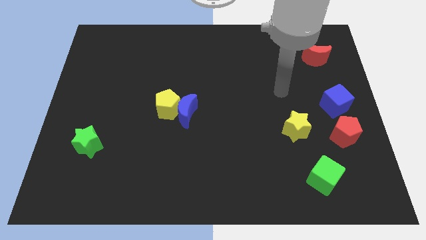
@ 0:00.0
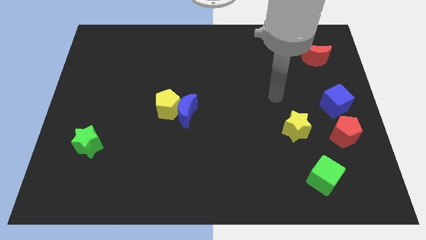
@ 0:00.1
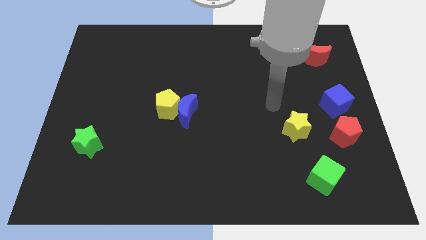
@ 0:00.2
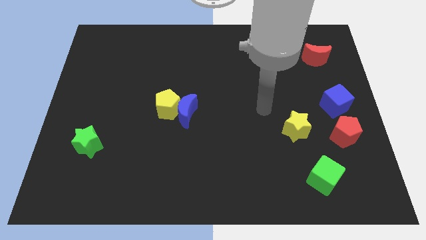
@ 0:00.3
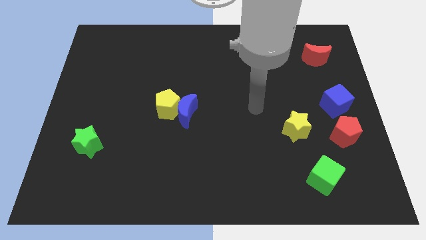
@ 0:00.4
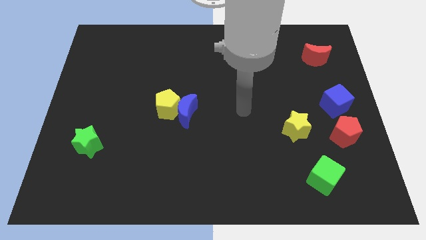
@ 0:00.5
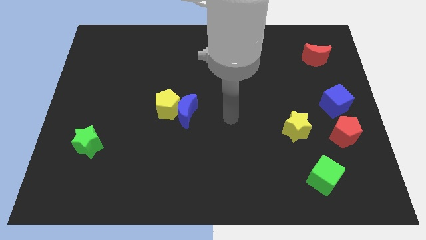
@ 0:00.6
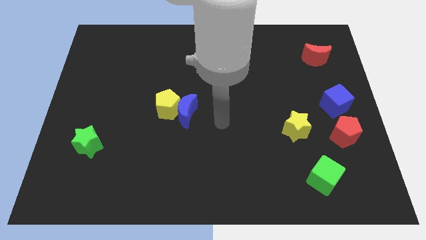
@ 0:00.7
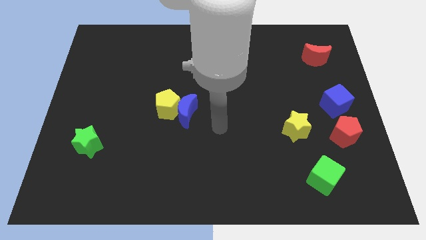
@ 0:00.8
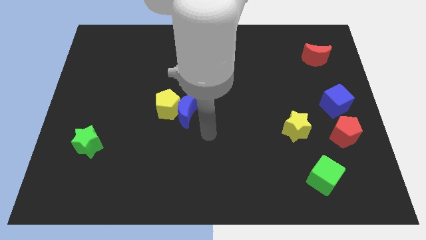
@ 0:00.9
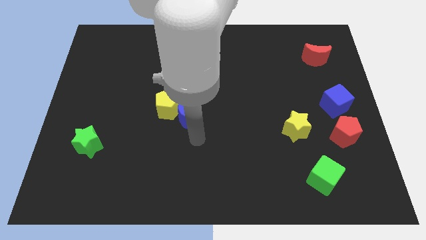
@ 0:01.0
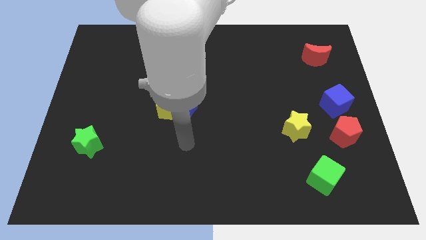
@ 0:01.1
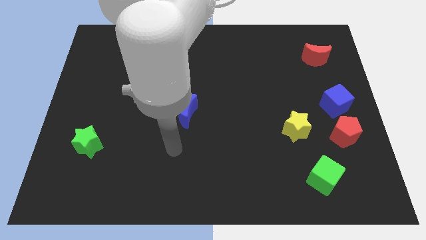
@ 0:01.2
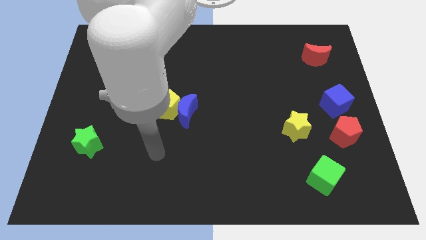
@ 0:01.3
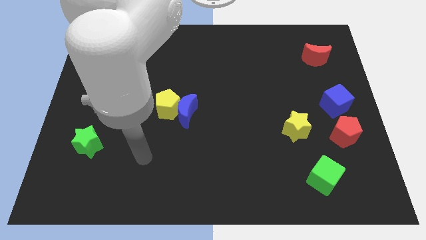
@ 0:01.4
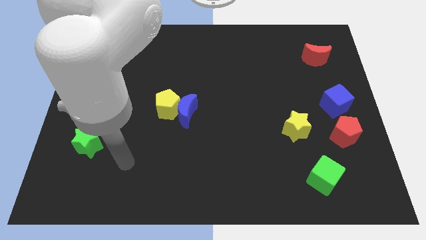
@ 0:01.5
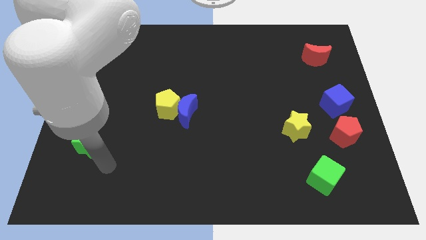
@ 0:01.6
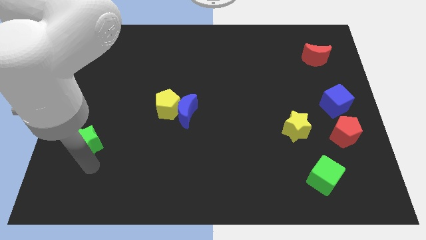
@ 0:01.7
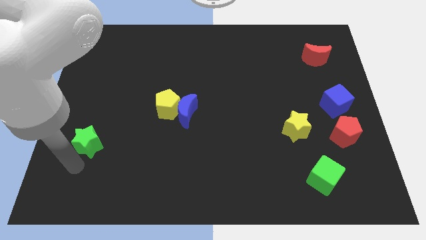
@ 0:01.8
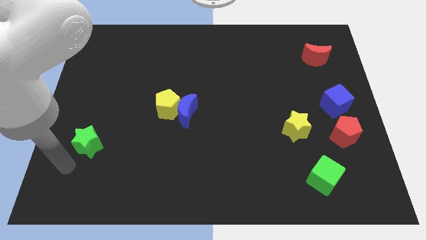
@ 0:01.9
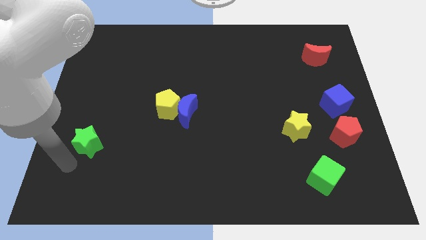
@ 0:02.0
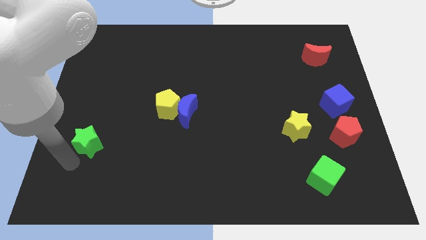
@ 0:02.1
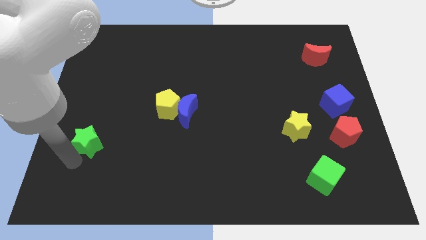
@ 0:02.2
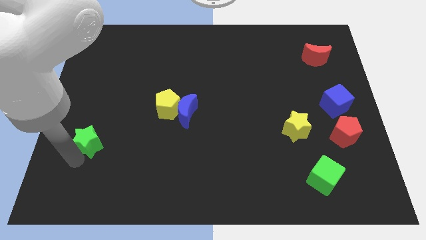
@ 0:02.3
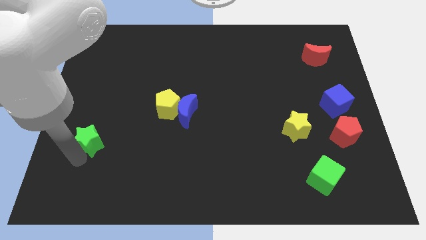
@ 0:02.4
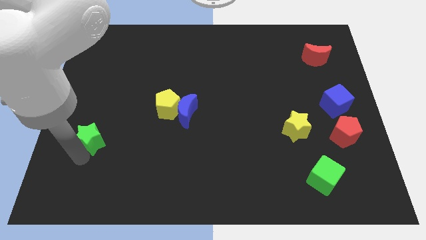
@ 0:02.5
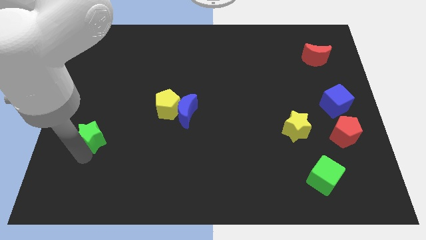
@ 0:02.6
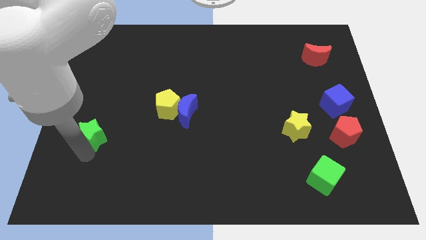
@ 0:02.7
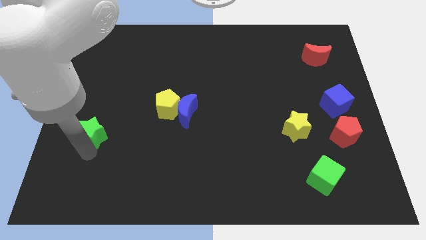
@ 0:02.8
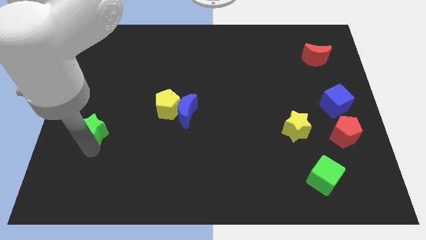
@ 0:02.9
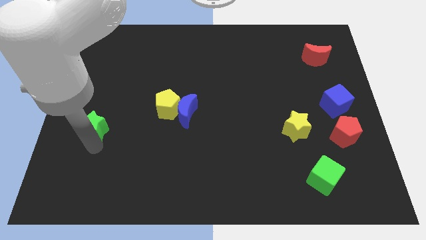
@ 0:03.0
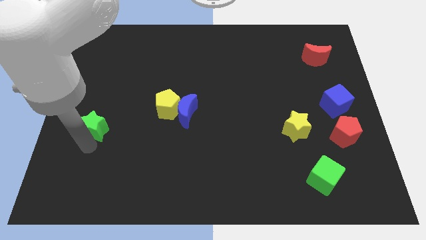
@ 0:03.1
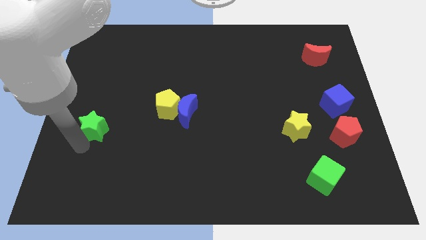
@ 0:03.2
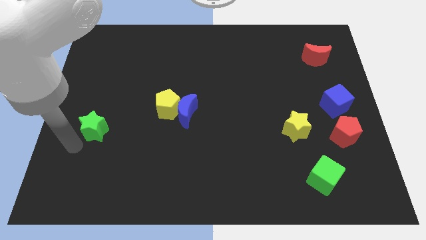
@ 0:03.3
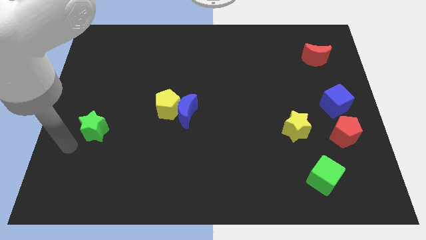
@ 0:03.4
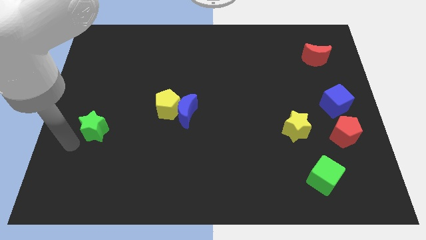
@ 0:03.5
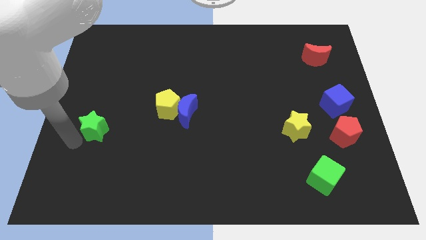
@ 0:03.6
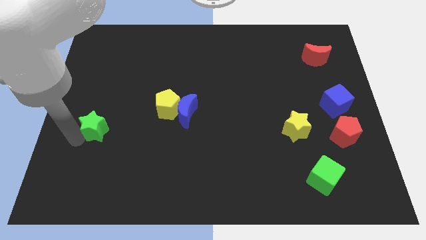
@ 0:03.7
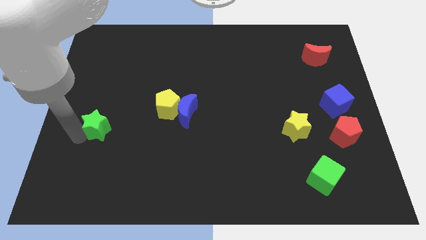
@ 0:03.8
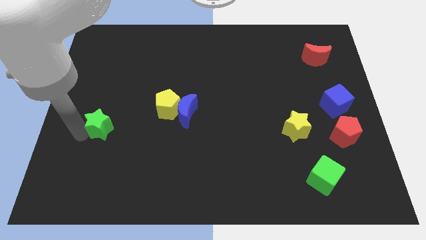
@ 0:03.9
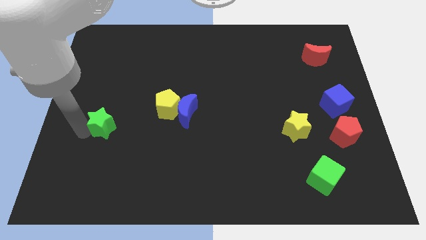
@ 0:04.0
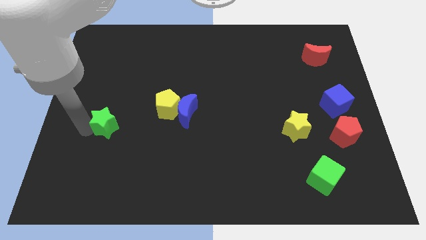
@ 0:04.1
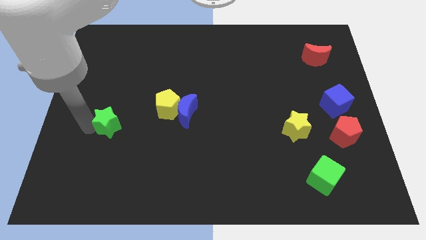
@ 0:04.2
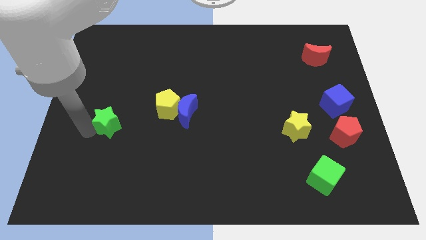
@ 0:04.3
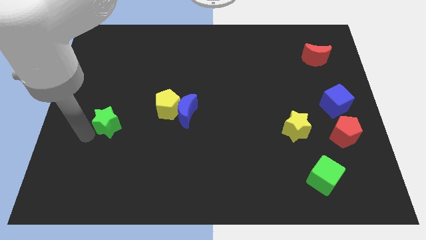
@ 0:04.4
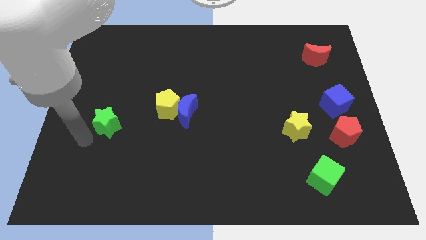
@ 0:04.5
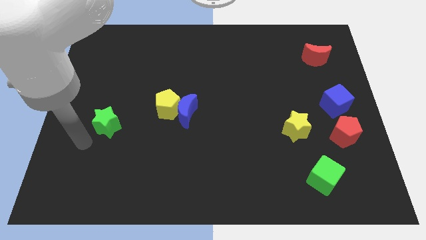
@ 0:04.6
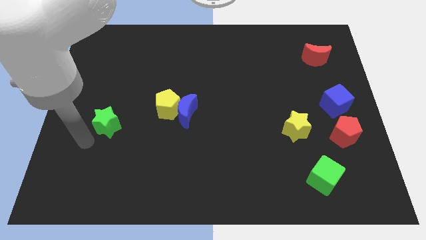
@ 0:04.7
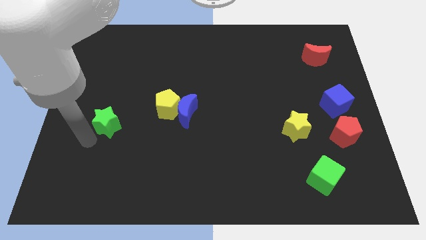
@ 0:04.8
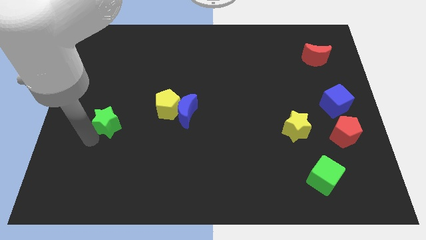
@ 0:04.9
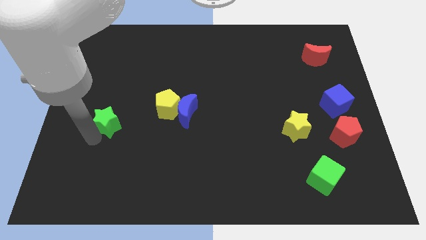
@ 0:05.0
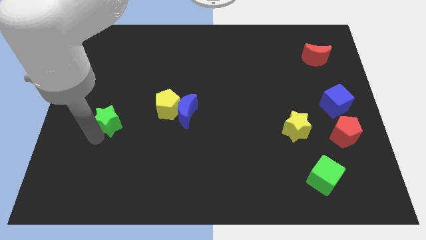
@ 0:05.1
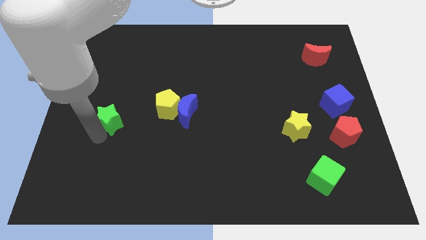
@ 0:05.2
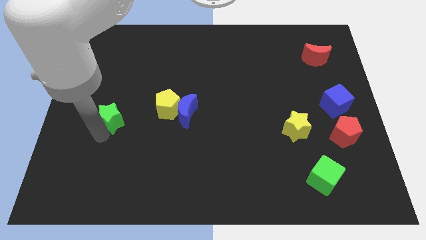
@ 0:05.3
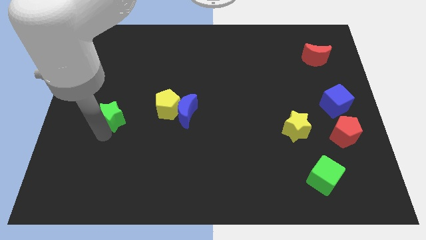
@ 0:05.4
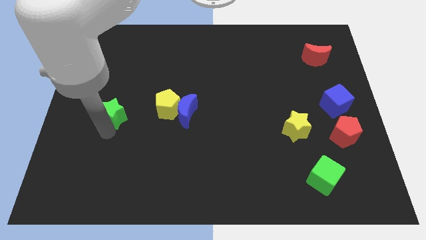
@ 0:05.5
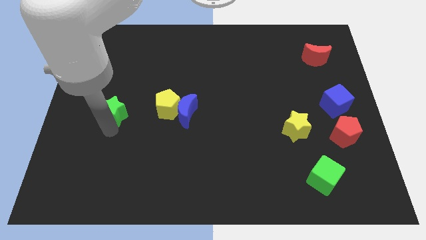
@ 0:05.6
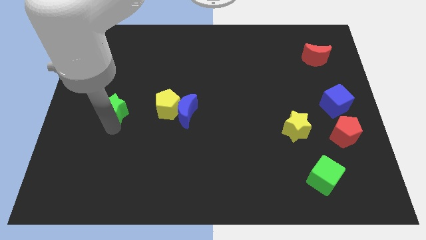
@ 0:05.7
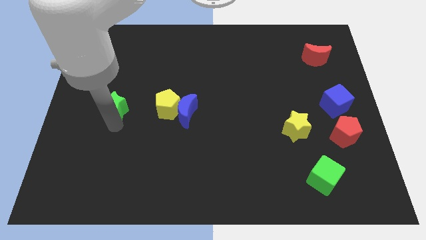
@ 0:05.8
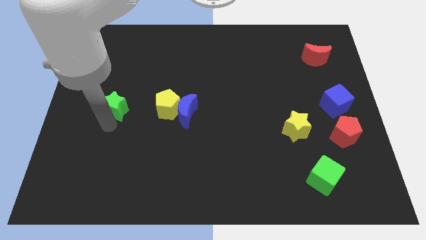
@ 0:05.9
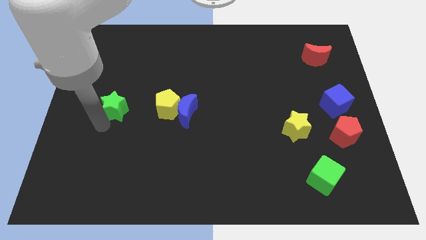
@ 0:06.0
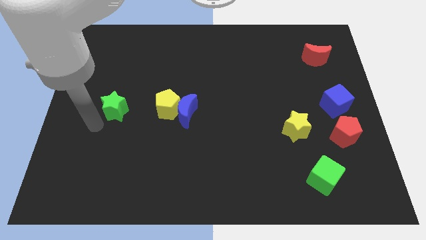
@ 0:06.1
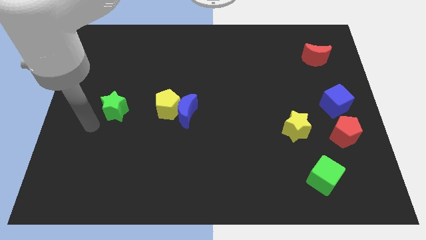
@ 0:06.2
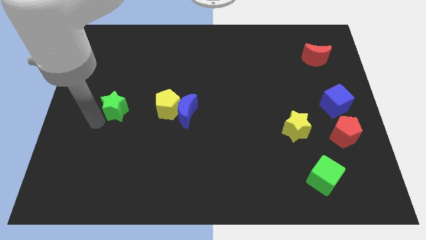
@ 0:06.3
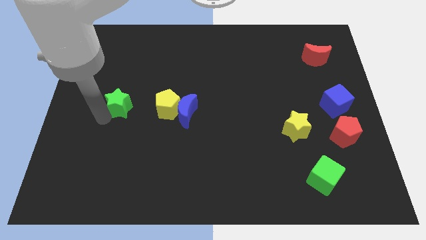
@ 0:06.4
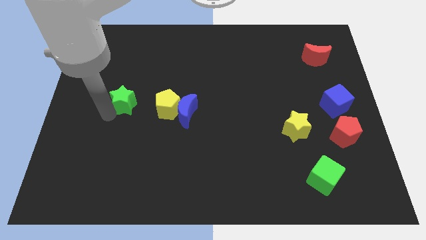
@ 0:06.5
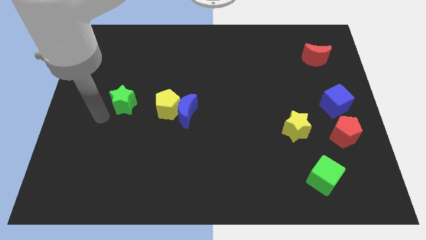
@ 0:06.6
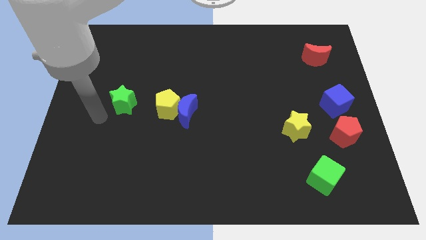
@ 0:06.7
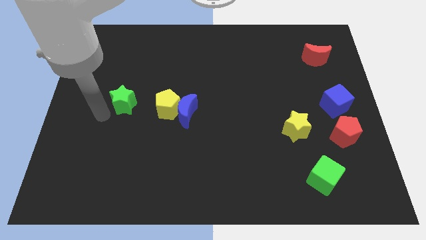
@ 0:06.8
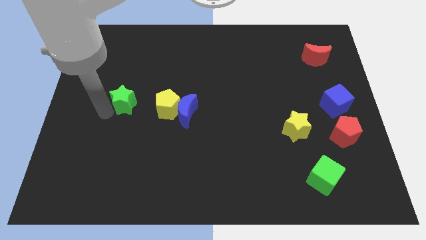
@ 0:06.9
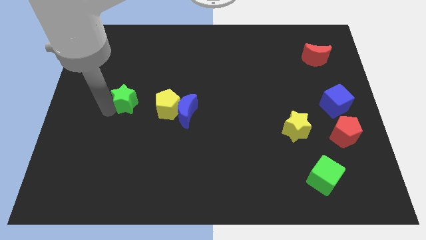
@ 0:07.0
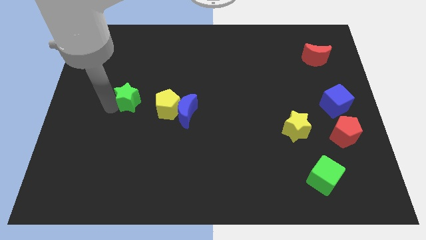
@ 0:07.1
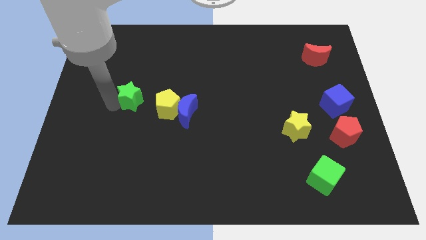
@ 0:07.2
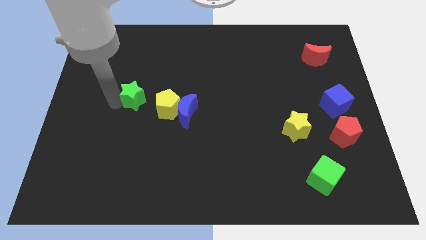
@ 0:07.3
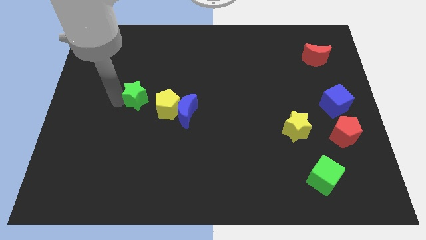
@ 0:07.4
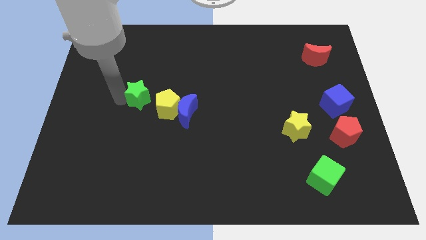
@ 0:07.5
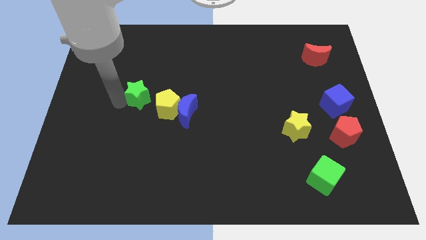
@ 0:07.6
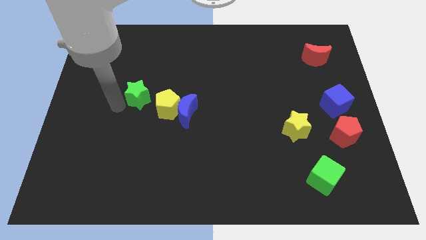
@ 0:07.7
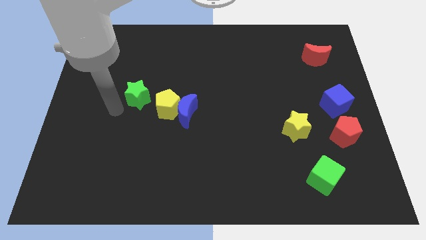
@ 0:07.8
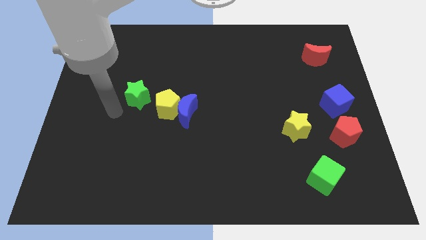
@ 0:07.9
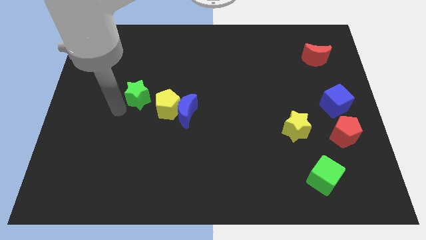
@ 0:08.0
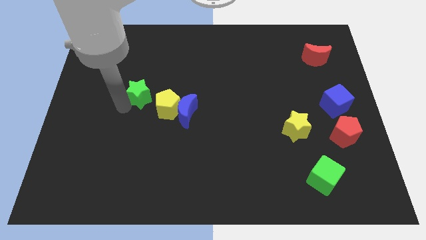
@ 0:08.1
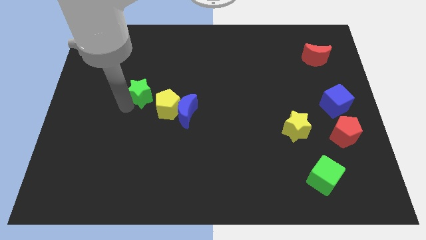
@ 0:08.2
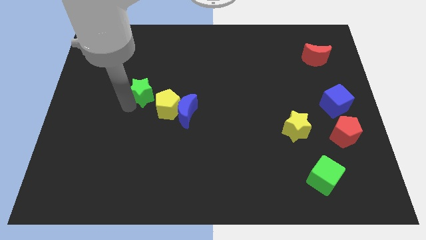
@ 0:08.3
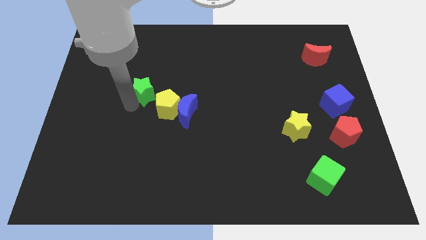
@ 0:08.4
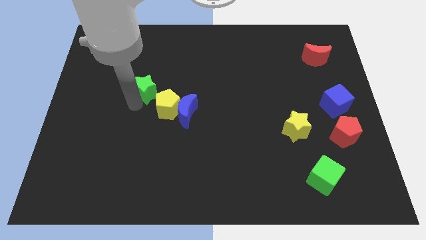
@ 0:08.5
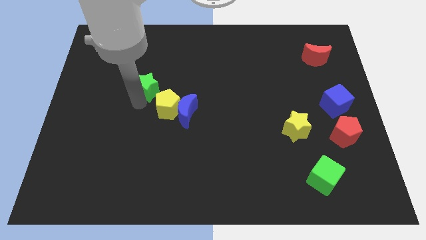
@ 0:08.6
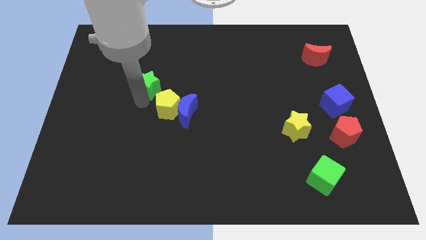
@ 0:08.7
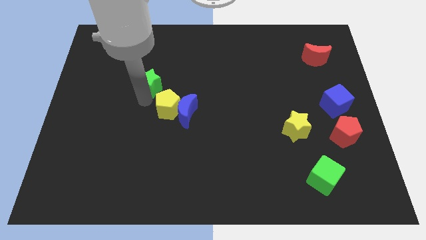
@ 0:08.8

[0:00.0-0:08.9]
slide the green star to the top side of the yellow pentagon
